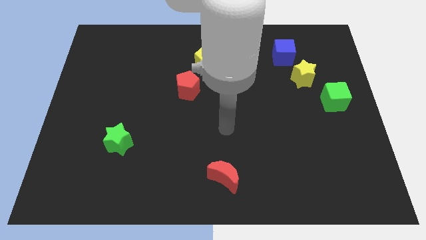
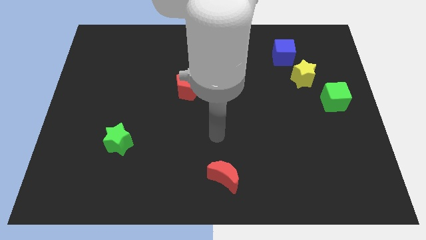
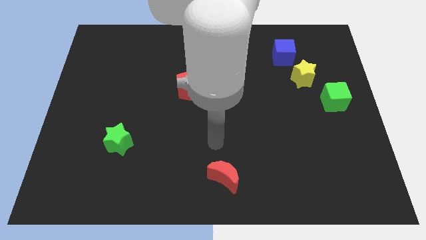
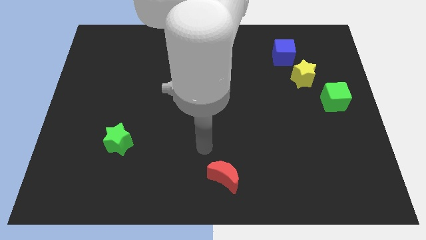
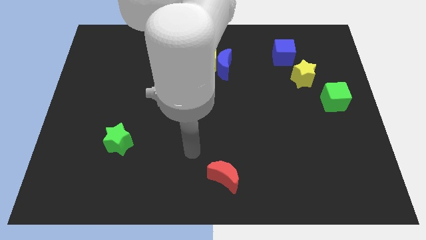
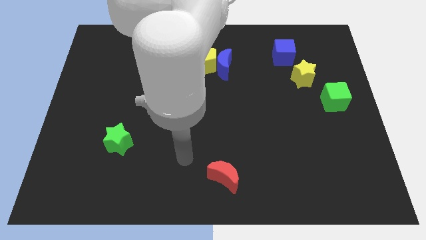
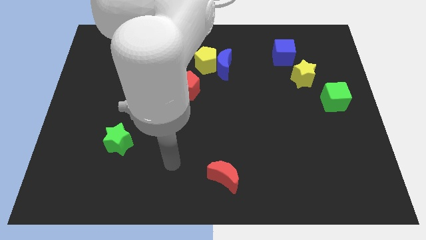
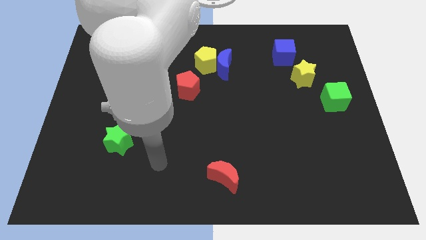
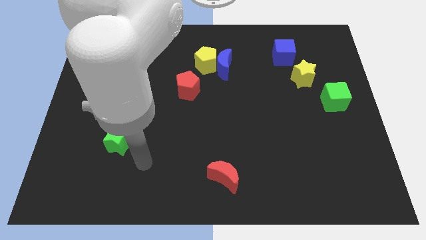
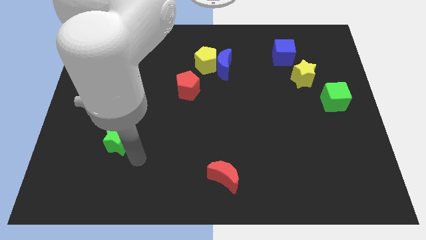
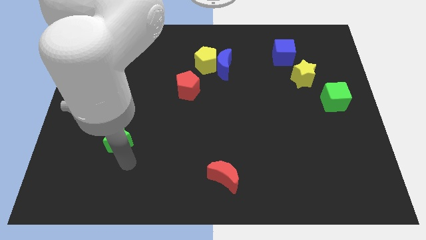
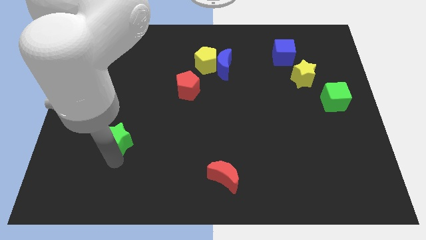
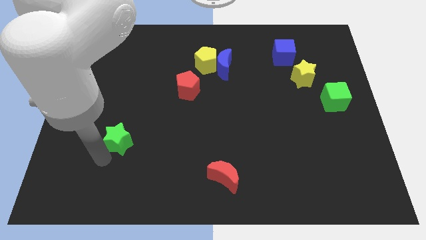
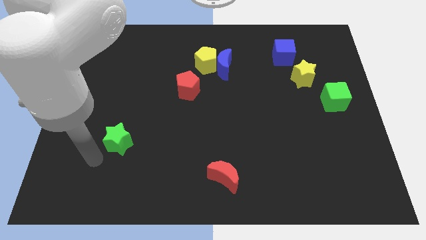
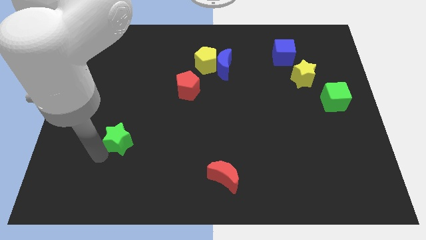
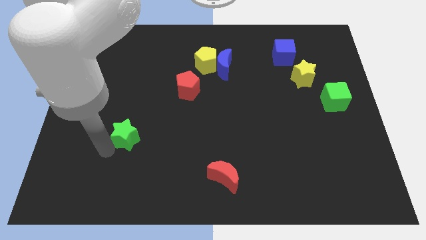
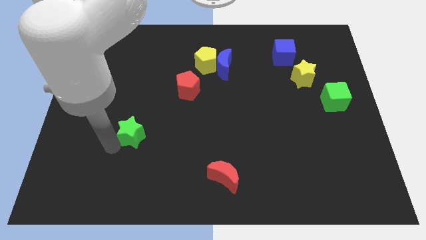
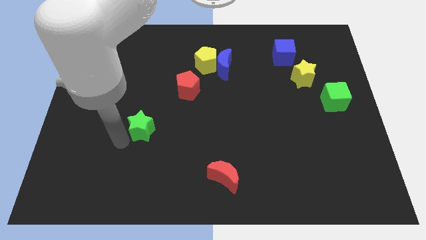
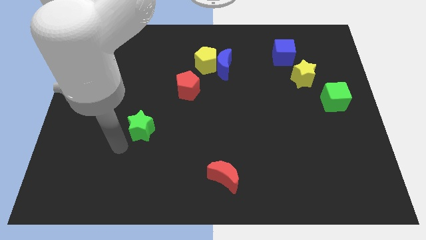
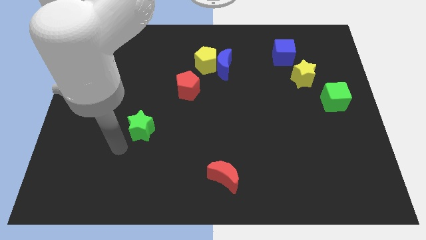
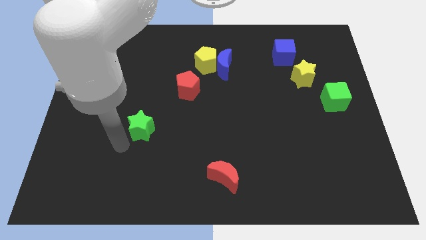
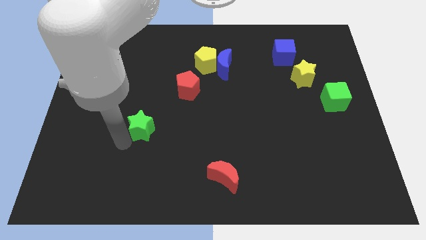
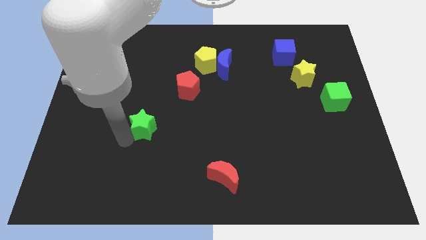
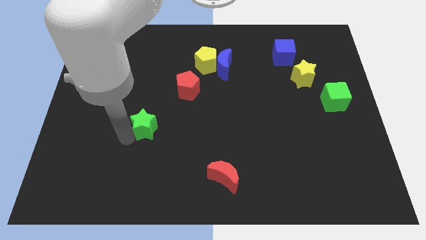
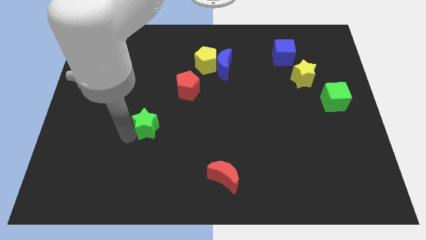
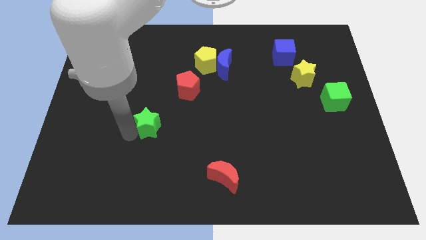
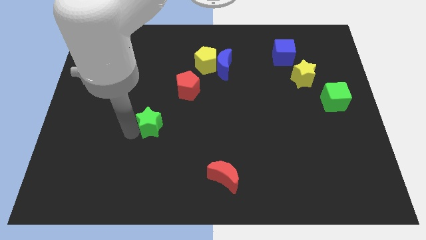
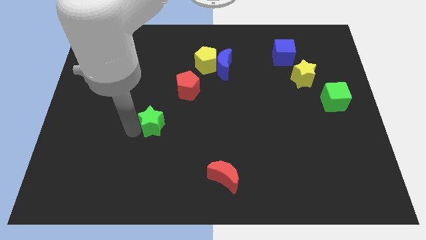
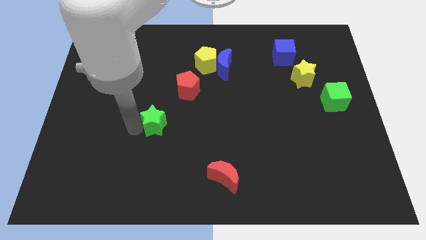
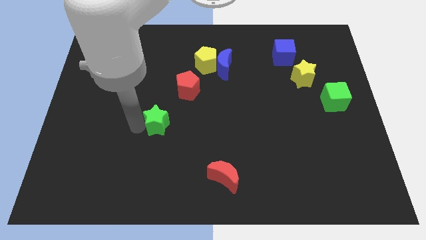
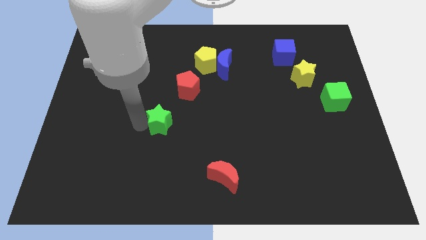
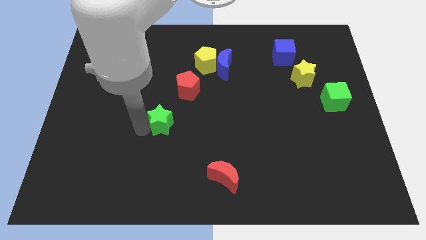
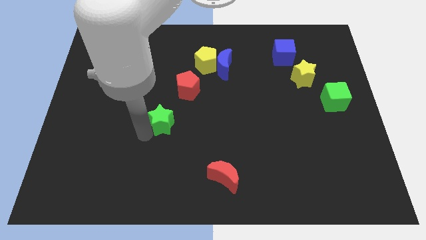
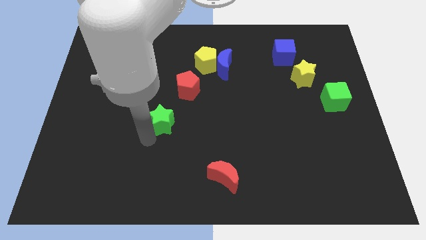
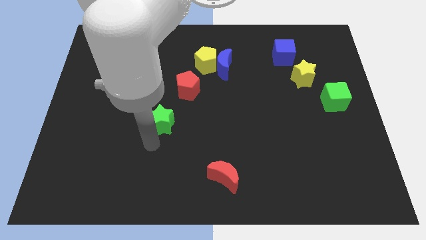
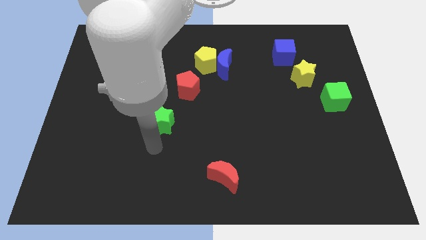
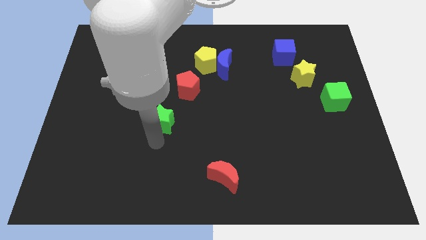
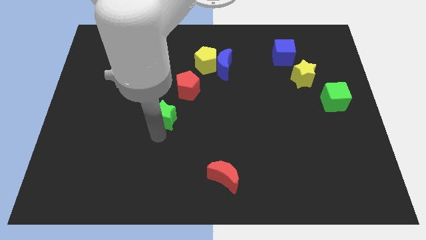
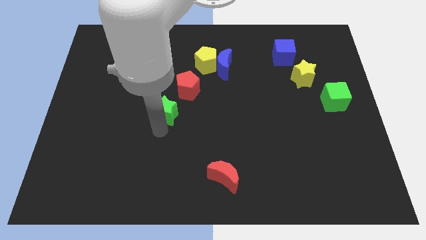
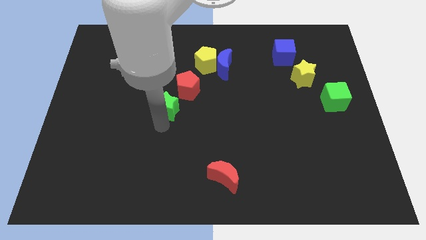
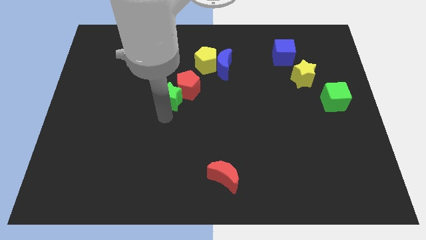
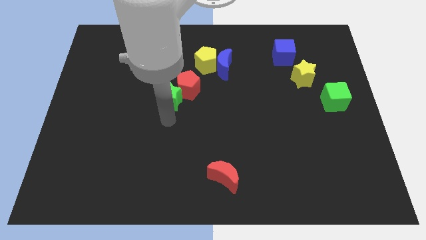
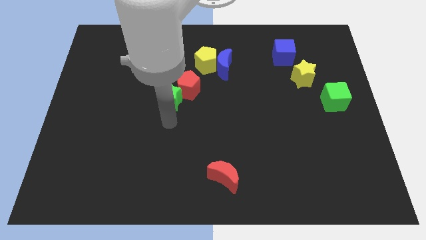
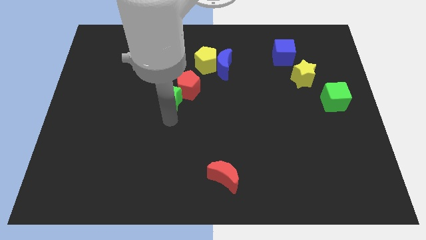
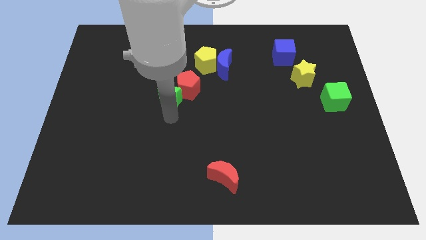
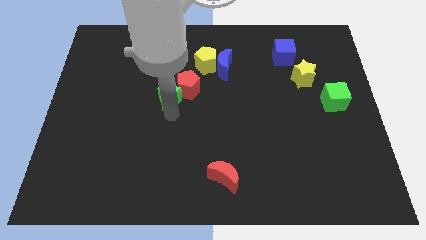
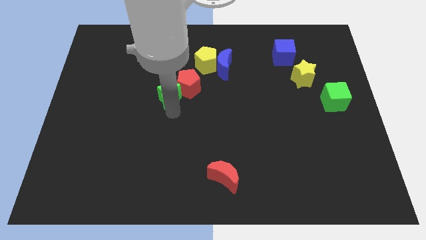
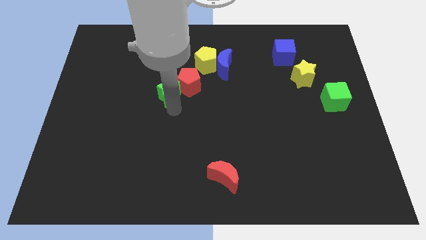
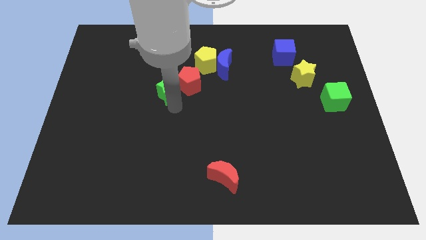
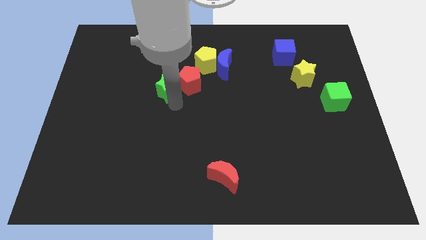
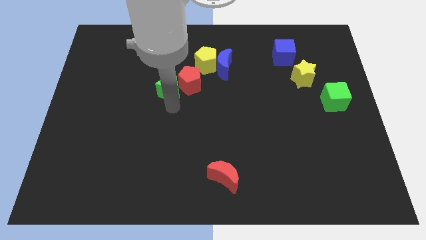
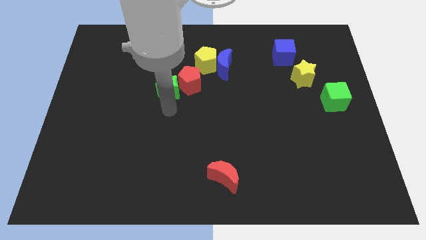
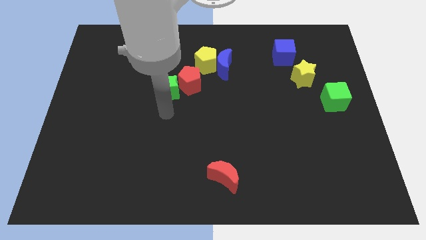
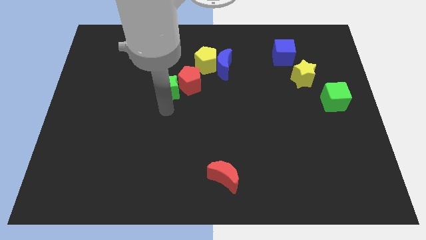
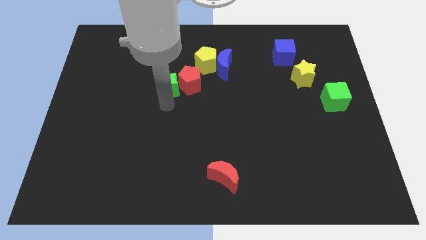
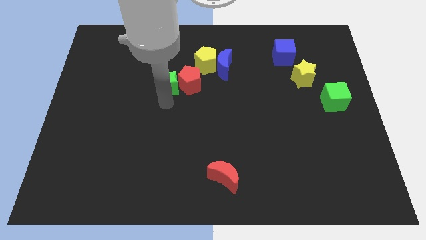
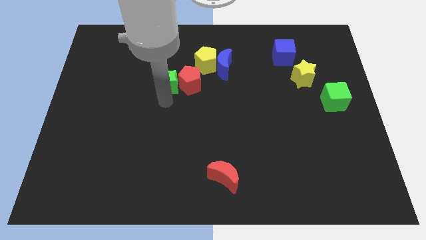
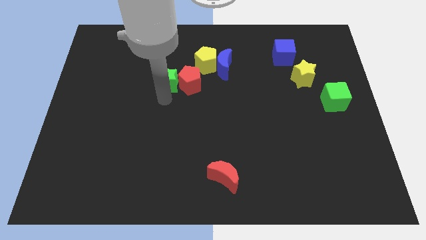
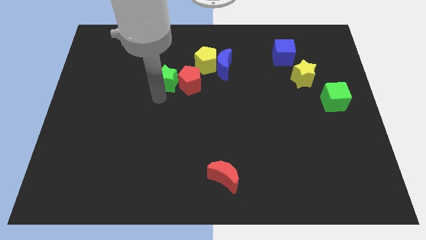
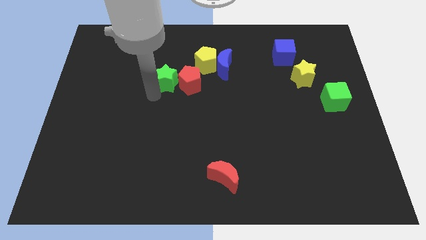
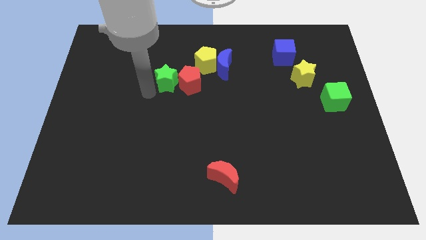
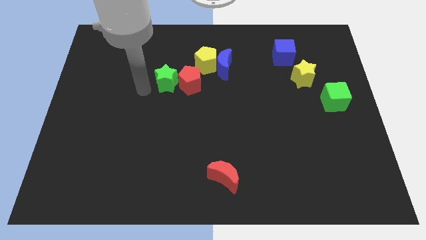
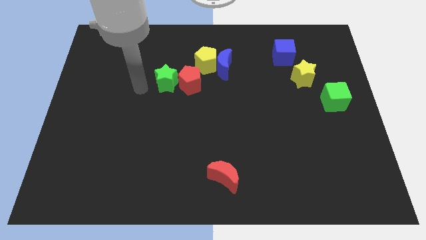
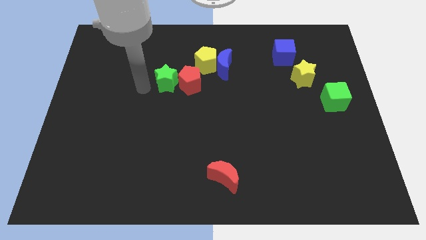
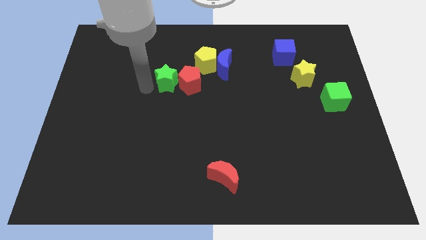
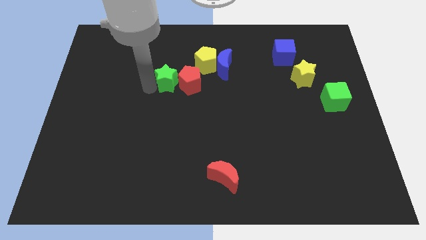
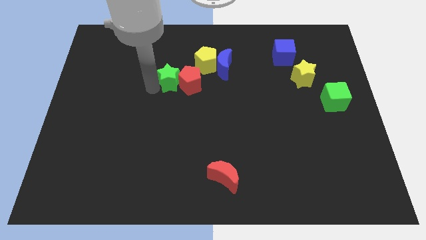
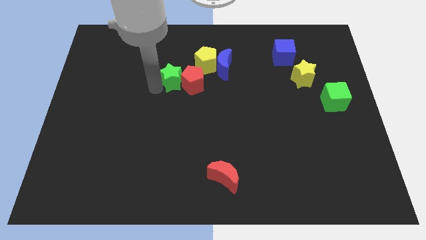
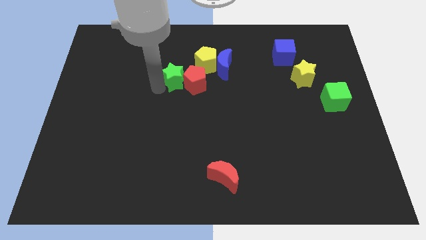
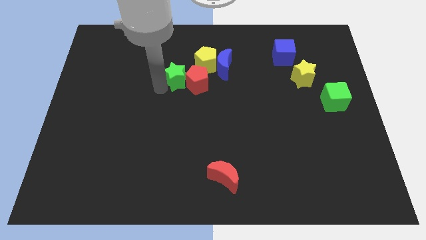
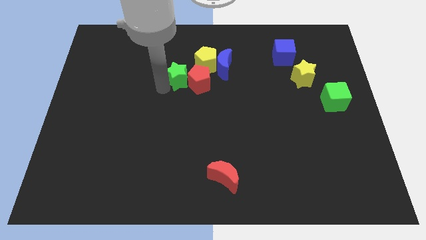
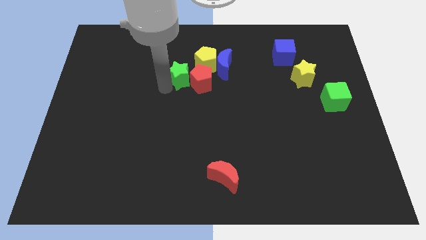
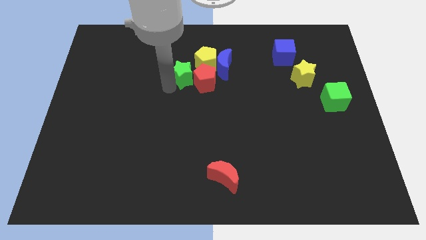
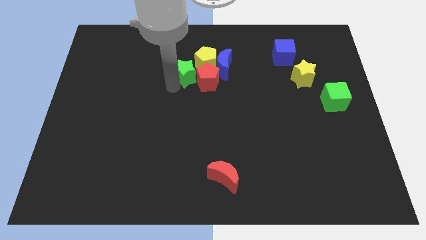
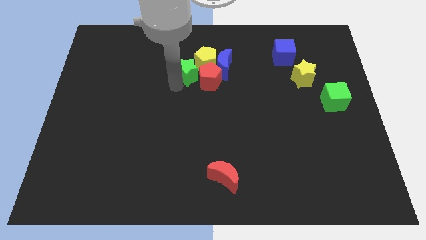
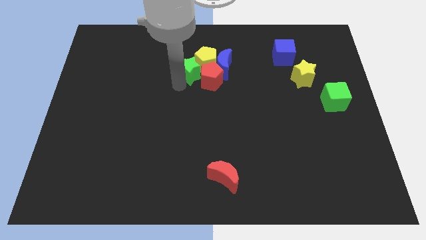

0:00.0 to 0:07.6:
push the green star next to the yellow pentagon

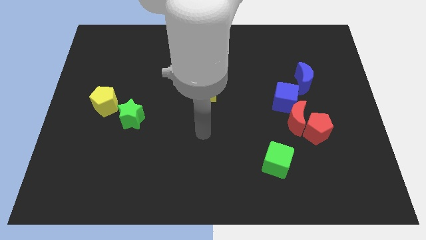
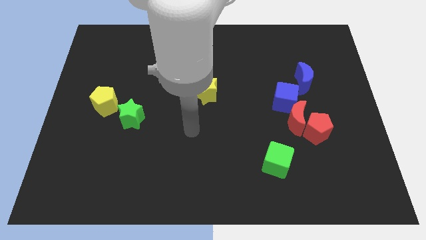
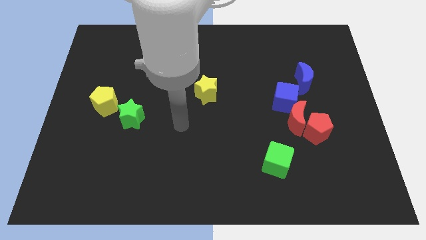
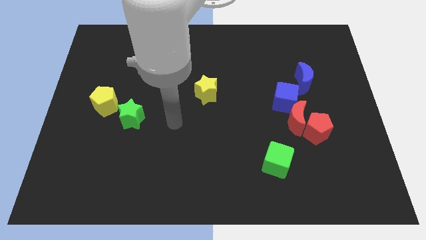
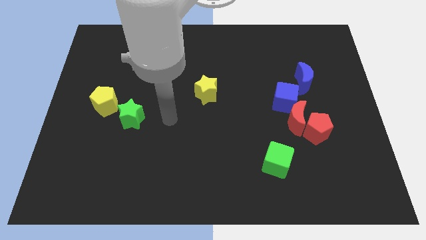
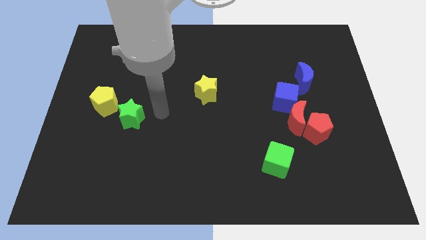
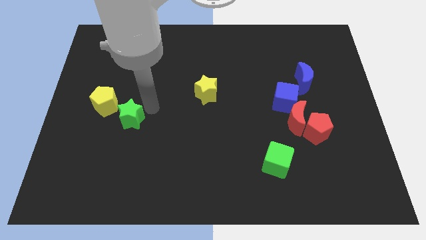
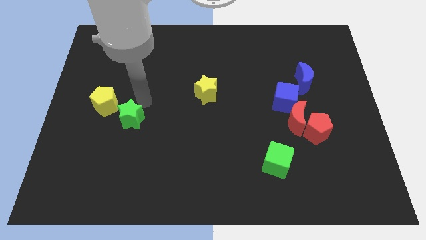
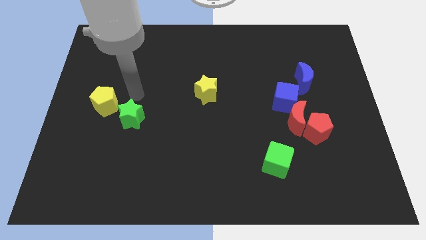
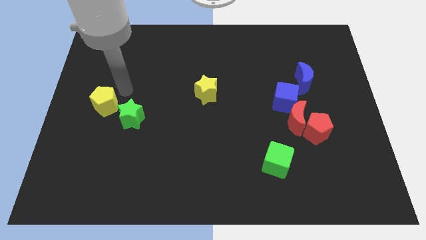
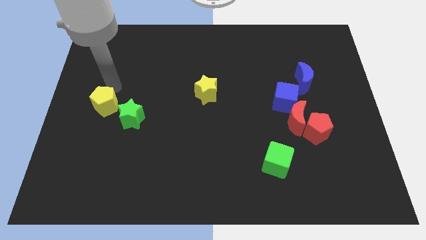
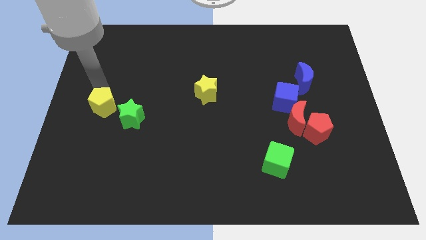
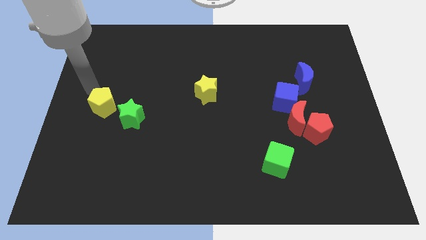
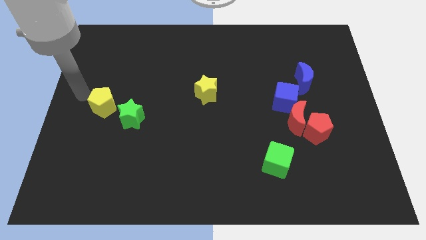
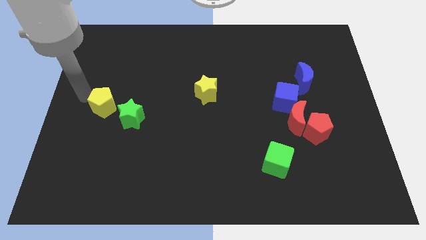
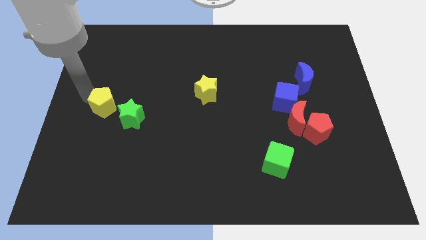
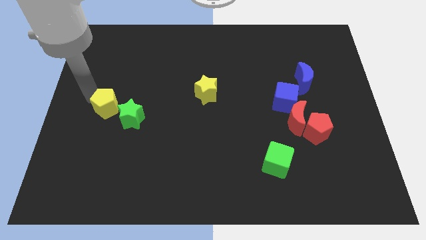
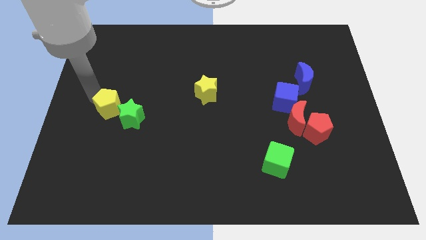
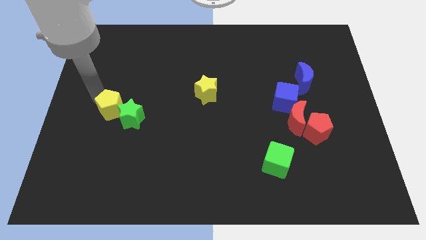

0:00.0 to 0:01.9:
push the yellow pentagon next to the green star
